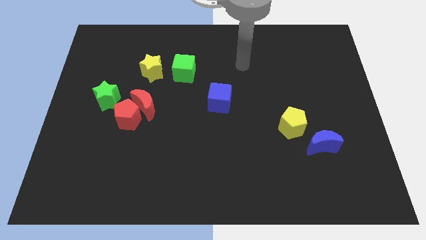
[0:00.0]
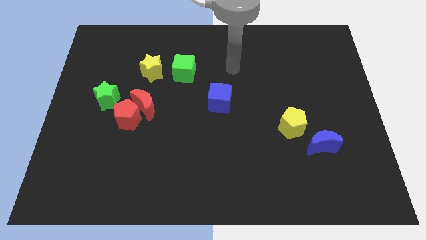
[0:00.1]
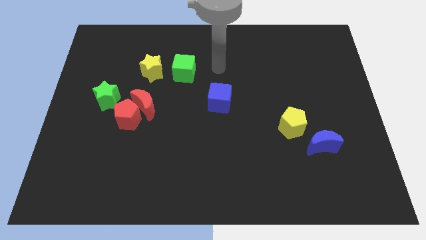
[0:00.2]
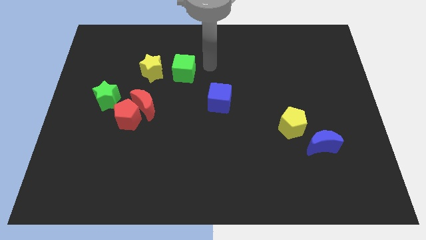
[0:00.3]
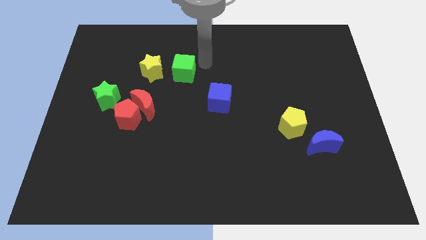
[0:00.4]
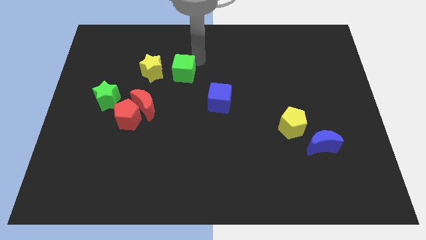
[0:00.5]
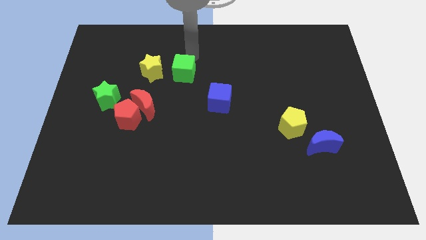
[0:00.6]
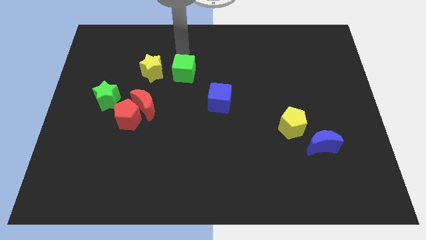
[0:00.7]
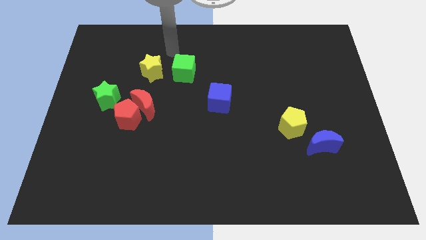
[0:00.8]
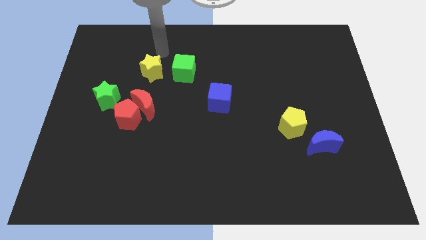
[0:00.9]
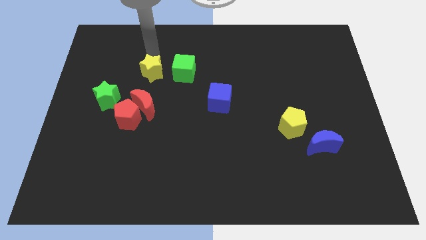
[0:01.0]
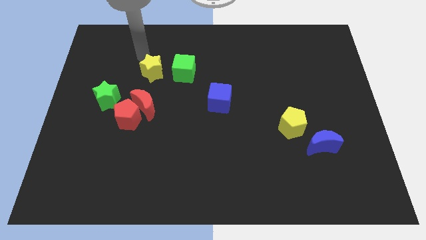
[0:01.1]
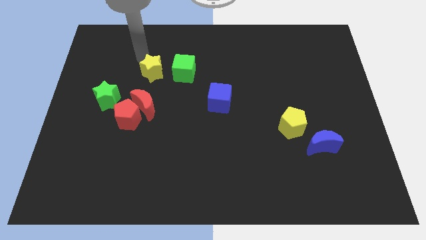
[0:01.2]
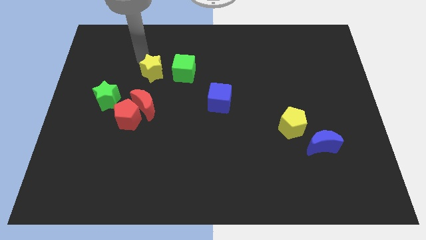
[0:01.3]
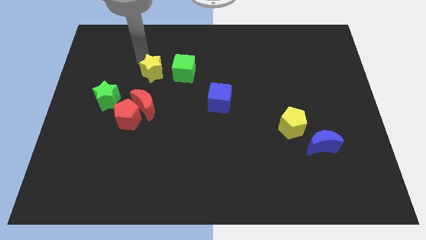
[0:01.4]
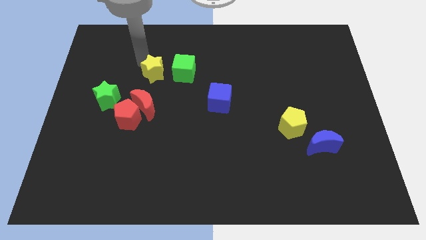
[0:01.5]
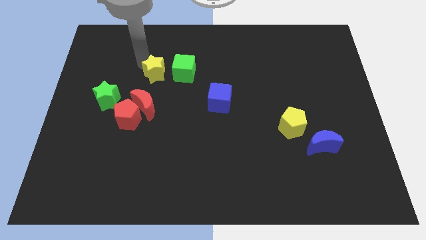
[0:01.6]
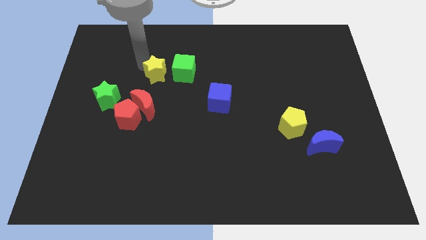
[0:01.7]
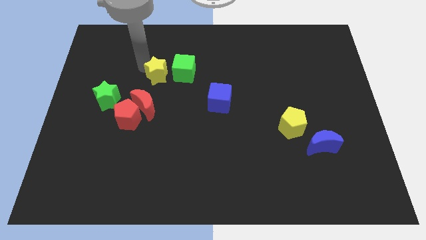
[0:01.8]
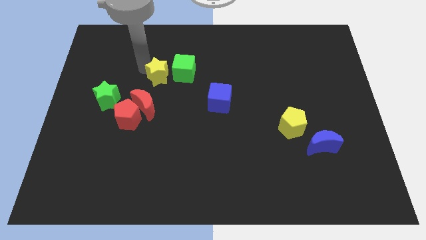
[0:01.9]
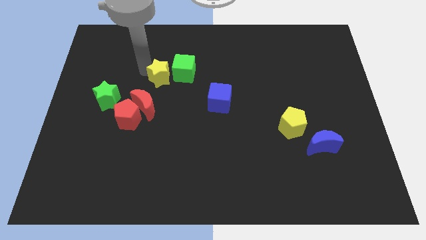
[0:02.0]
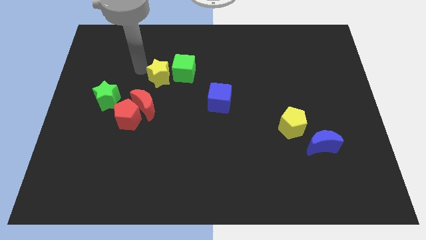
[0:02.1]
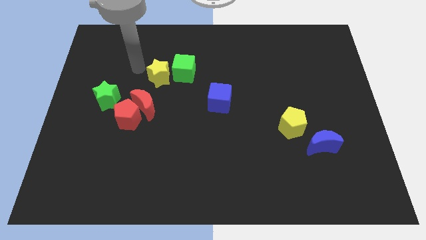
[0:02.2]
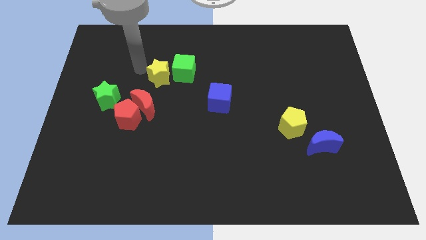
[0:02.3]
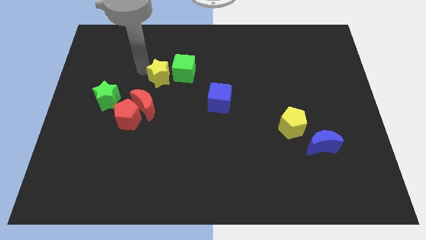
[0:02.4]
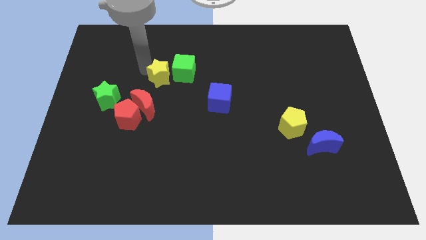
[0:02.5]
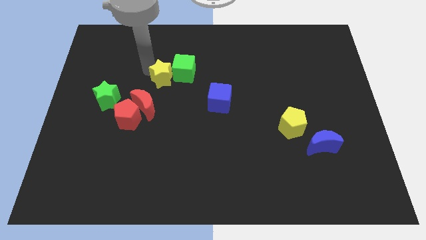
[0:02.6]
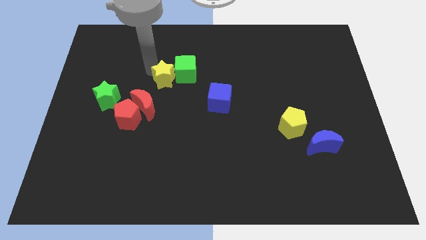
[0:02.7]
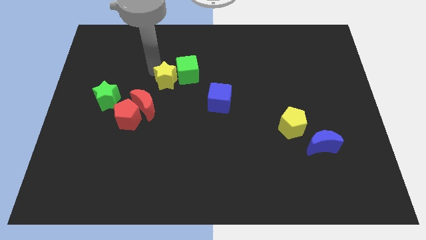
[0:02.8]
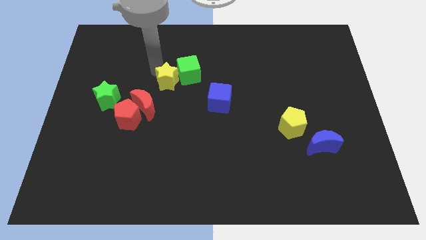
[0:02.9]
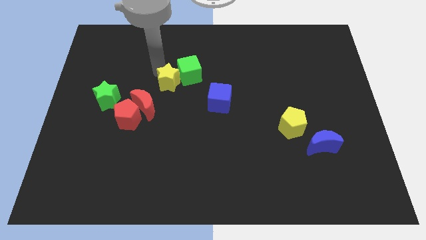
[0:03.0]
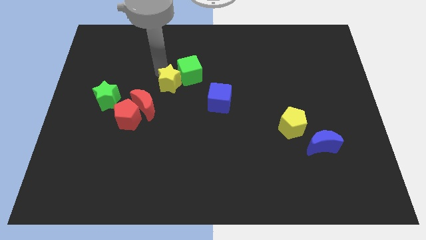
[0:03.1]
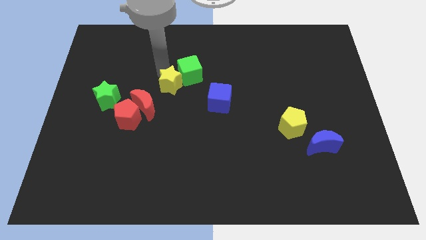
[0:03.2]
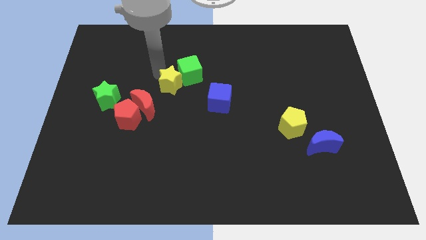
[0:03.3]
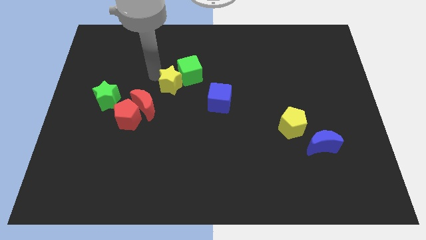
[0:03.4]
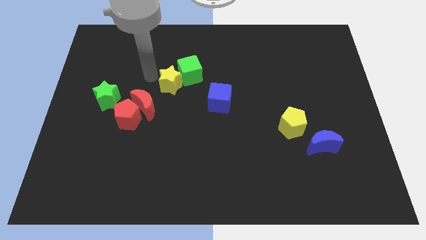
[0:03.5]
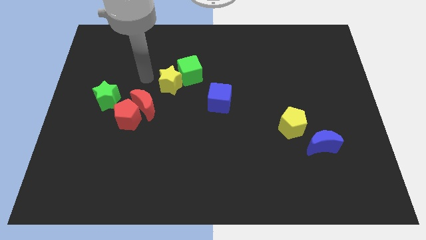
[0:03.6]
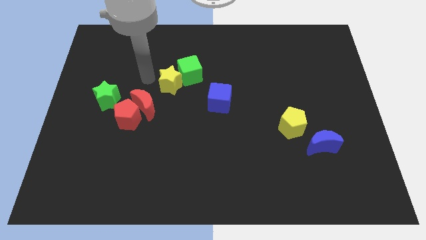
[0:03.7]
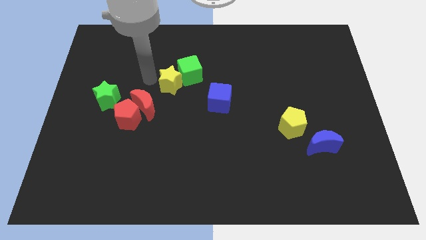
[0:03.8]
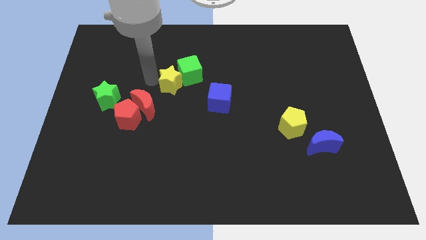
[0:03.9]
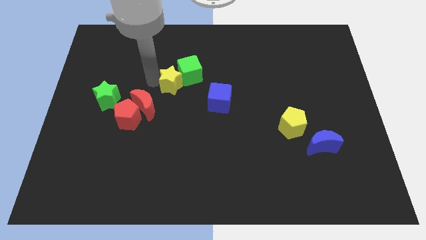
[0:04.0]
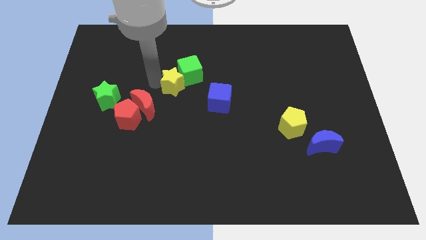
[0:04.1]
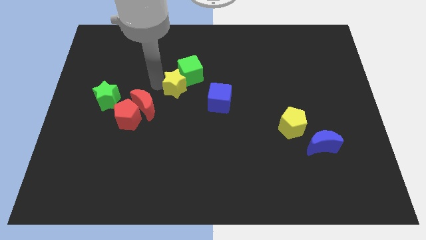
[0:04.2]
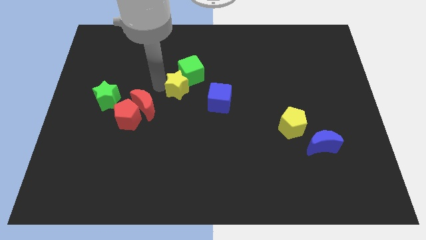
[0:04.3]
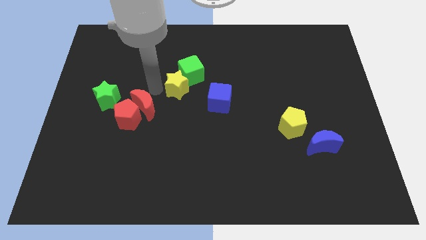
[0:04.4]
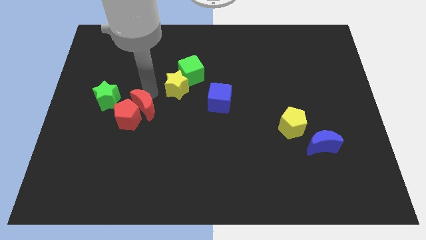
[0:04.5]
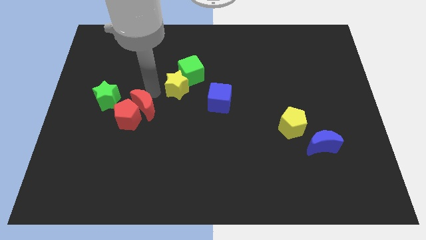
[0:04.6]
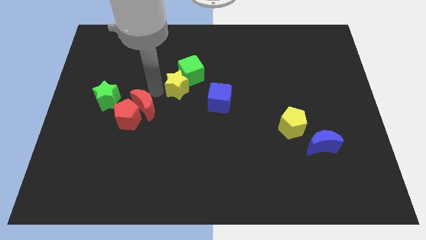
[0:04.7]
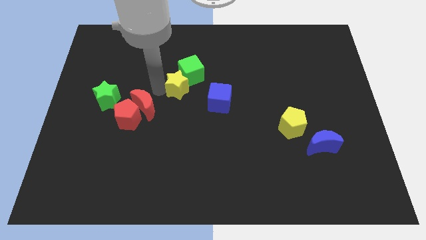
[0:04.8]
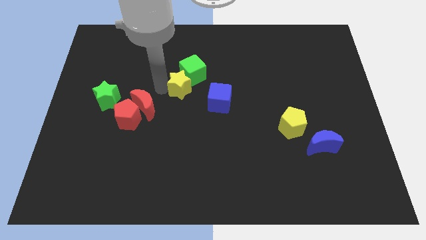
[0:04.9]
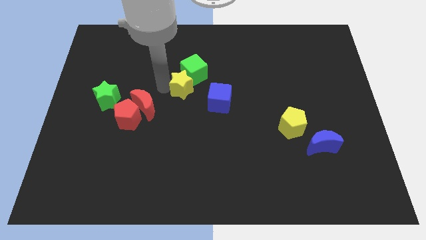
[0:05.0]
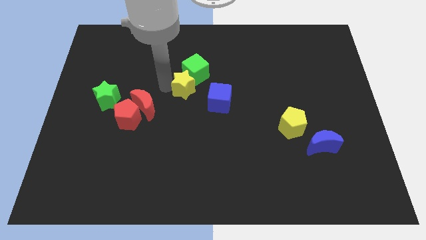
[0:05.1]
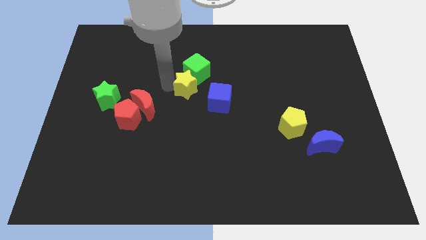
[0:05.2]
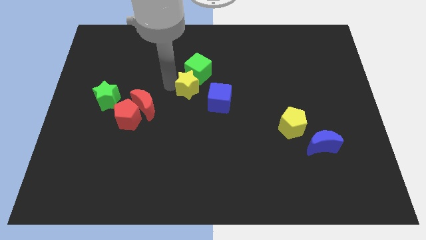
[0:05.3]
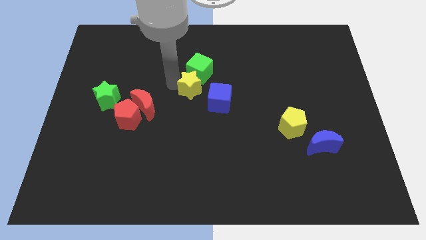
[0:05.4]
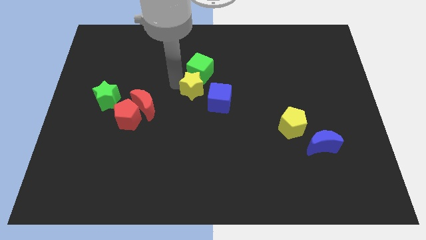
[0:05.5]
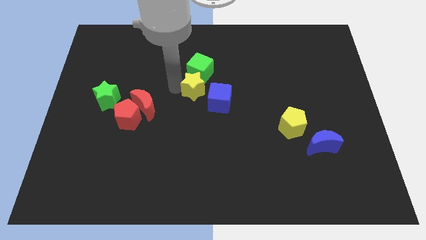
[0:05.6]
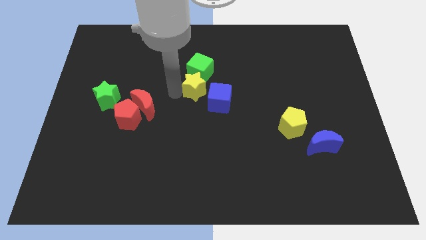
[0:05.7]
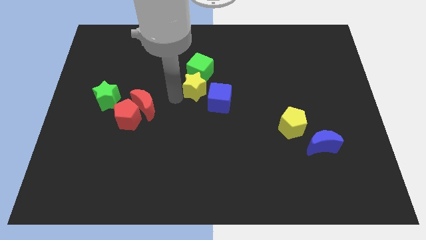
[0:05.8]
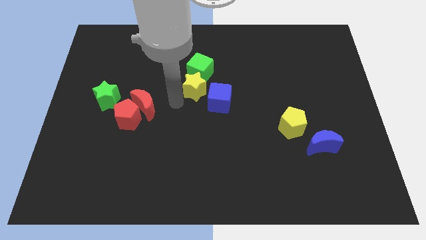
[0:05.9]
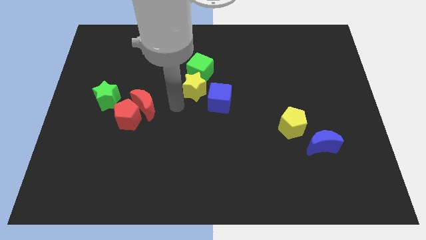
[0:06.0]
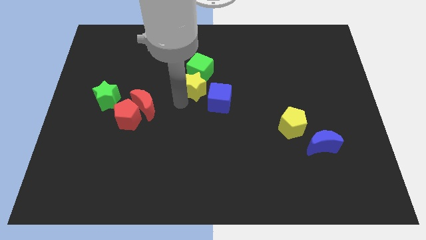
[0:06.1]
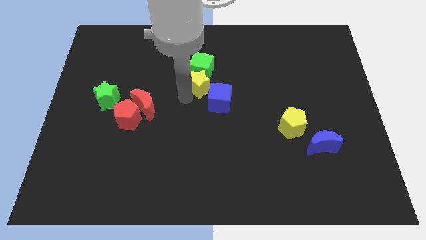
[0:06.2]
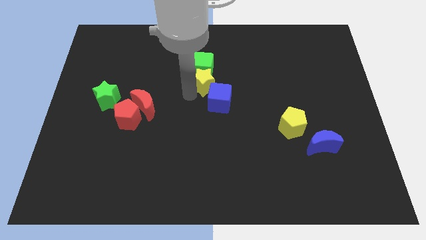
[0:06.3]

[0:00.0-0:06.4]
move the yellow star to the top of the blue cube
